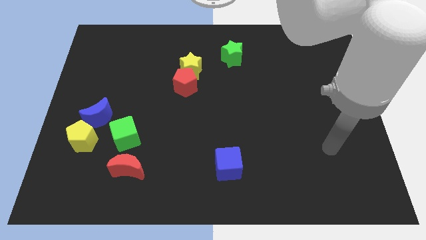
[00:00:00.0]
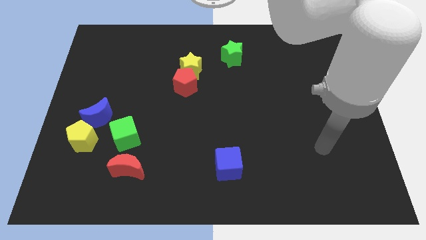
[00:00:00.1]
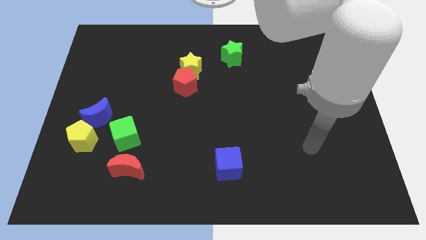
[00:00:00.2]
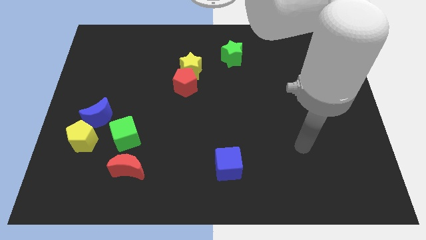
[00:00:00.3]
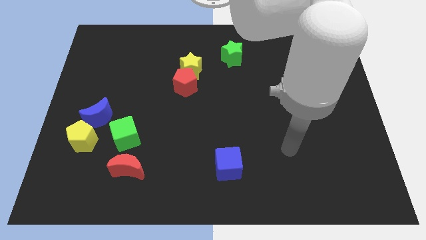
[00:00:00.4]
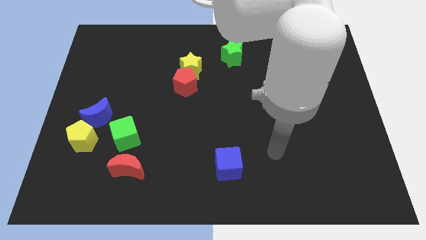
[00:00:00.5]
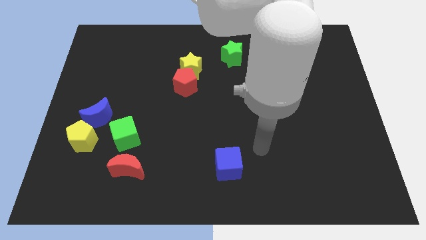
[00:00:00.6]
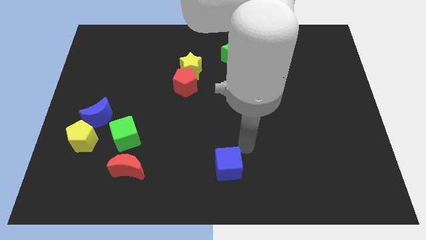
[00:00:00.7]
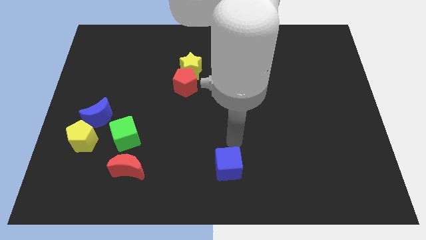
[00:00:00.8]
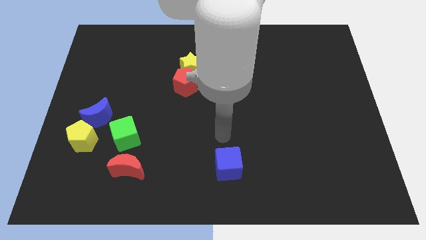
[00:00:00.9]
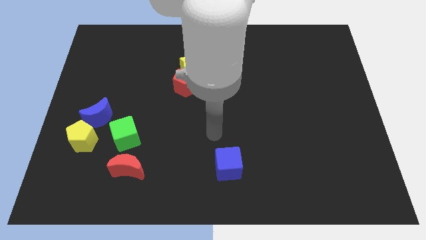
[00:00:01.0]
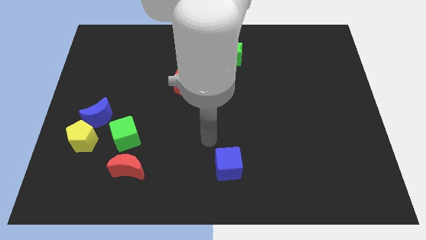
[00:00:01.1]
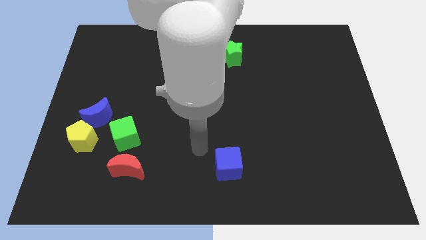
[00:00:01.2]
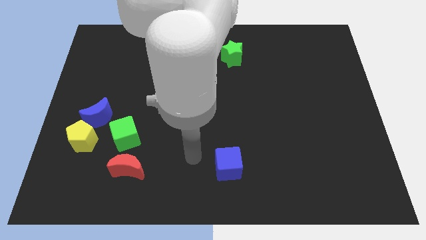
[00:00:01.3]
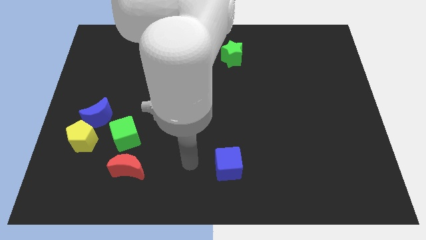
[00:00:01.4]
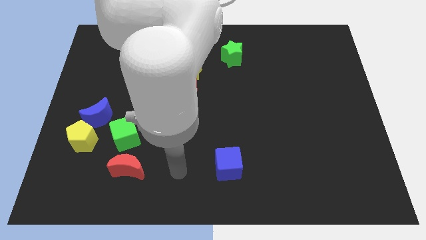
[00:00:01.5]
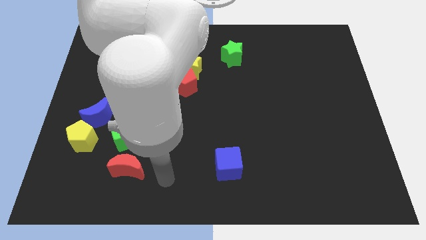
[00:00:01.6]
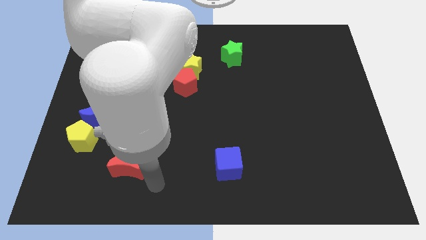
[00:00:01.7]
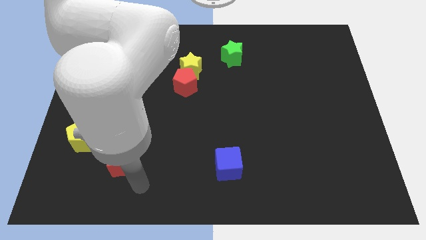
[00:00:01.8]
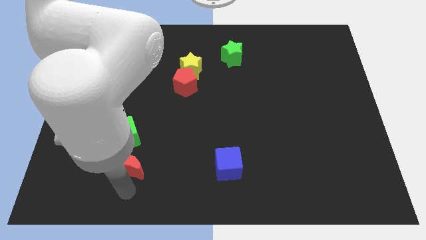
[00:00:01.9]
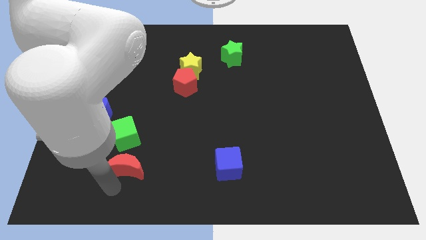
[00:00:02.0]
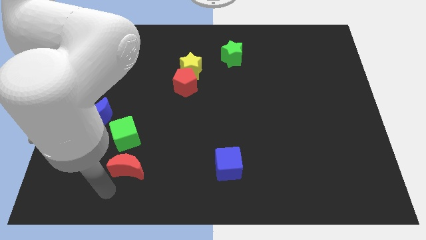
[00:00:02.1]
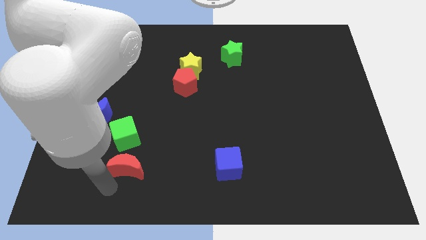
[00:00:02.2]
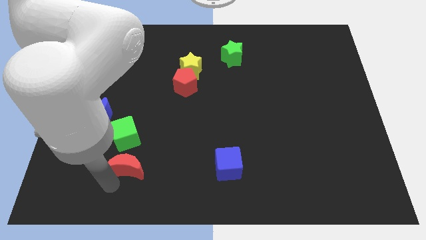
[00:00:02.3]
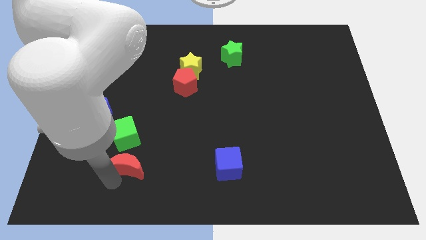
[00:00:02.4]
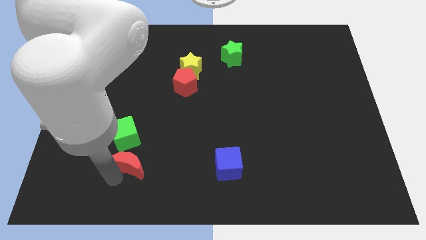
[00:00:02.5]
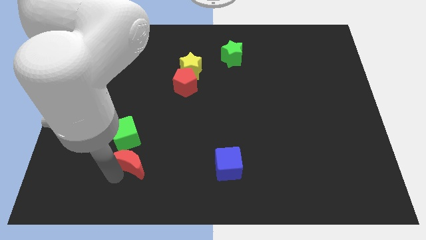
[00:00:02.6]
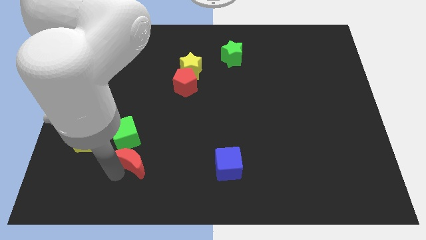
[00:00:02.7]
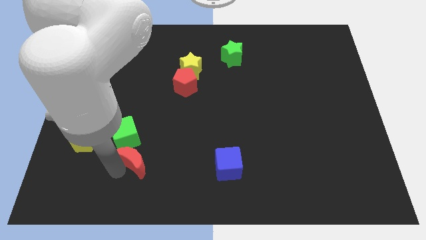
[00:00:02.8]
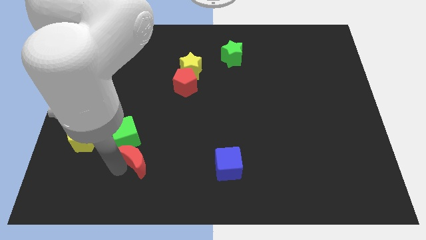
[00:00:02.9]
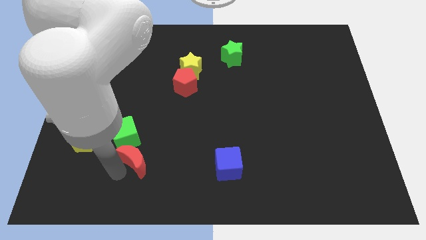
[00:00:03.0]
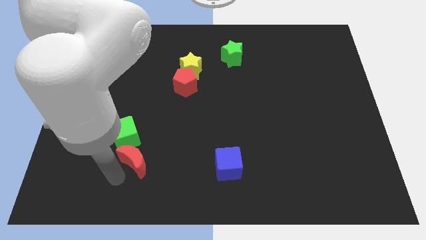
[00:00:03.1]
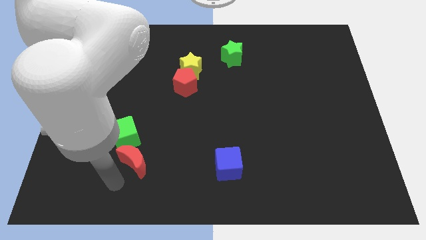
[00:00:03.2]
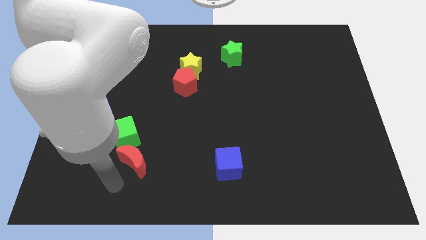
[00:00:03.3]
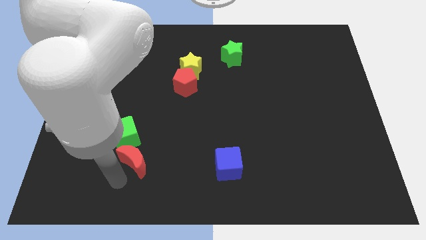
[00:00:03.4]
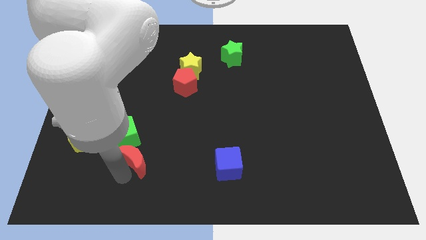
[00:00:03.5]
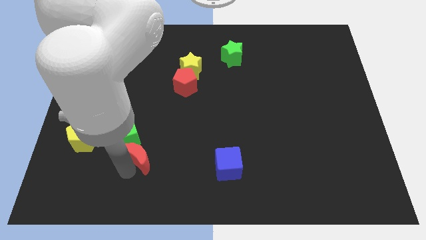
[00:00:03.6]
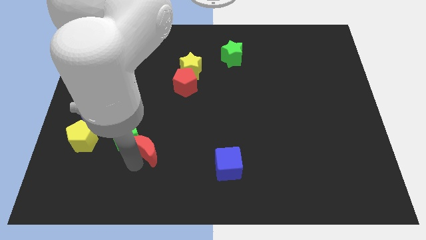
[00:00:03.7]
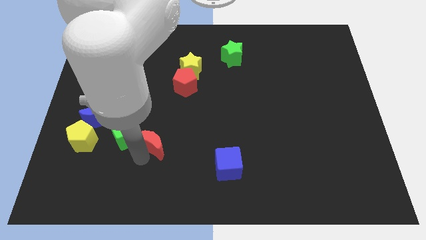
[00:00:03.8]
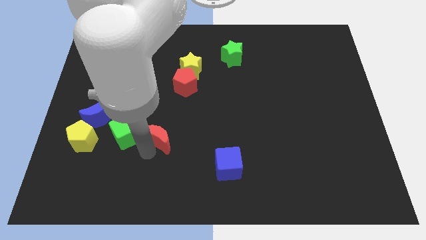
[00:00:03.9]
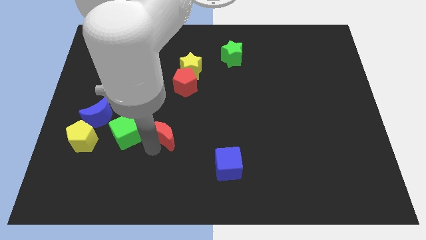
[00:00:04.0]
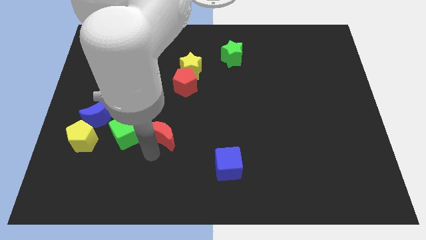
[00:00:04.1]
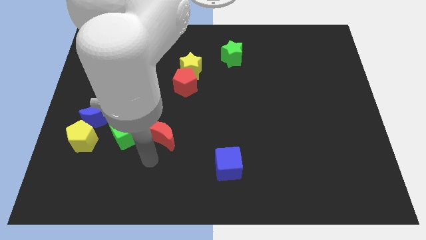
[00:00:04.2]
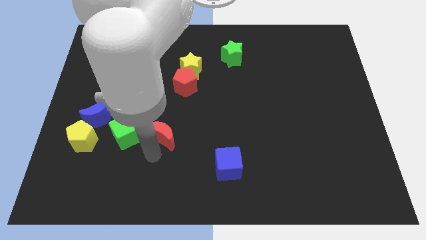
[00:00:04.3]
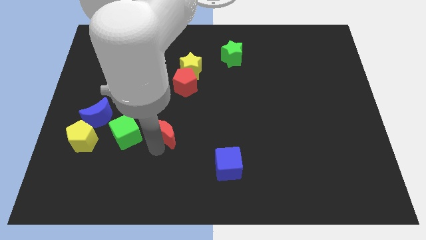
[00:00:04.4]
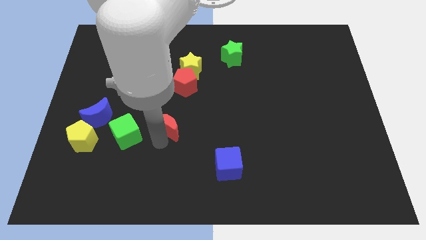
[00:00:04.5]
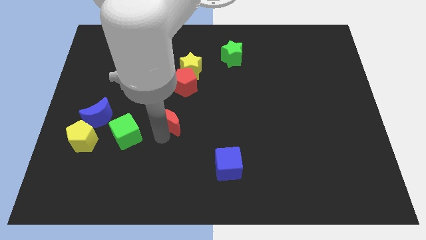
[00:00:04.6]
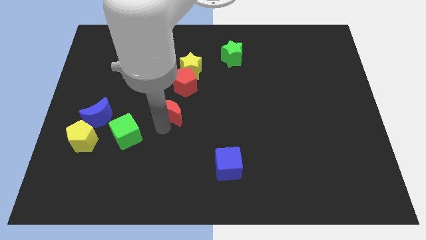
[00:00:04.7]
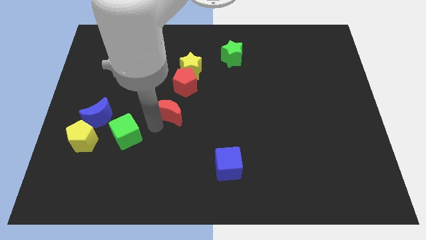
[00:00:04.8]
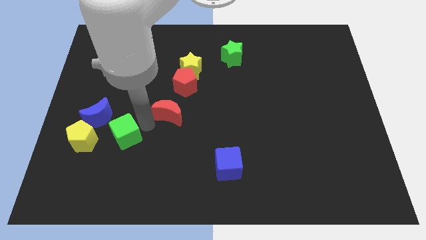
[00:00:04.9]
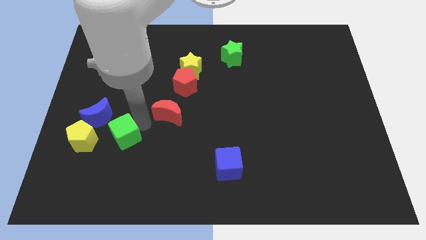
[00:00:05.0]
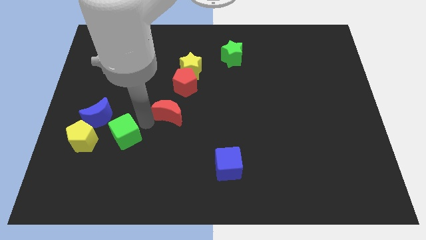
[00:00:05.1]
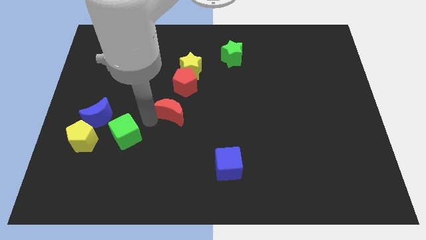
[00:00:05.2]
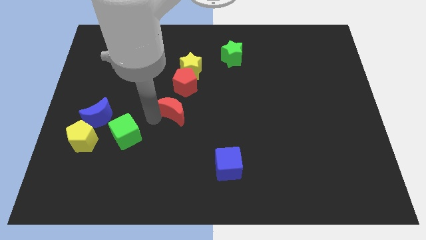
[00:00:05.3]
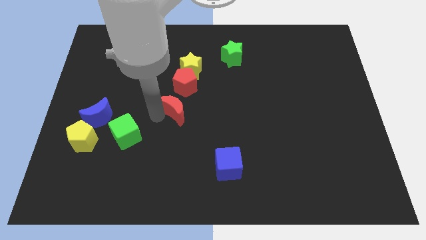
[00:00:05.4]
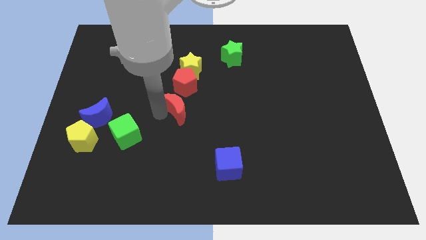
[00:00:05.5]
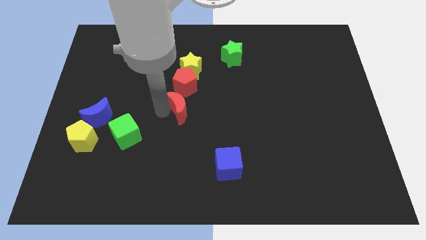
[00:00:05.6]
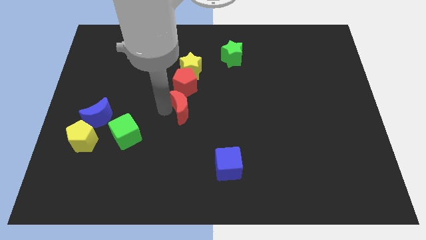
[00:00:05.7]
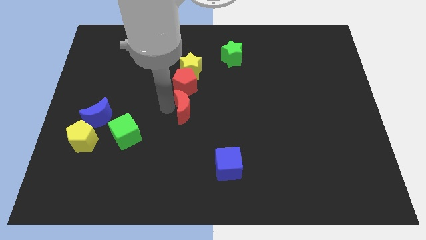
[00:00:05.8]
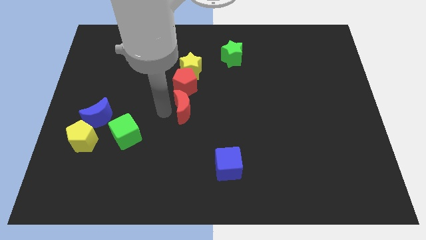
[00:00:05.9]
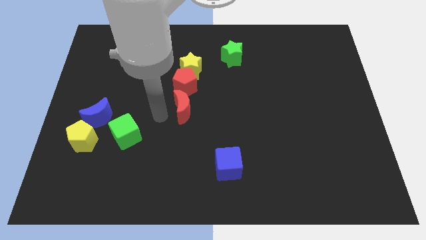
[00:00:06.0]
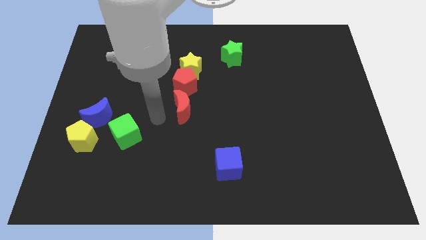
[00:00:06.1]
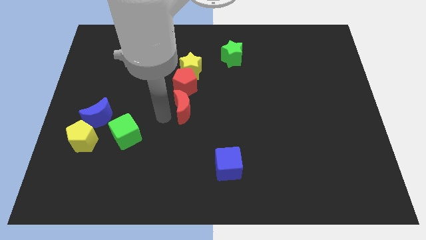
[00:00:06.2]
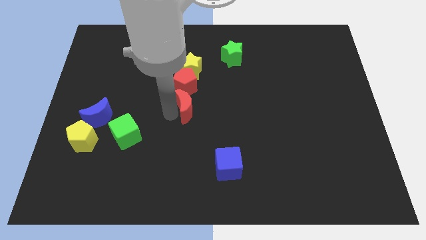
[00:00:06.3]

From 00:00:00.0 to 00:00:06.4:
move the red moon to the bottom right side of the red pentagon

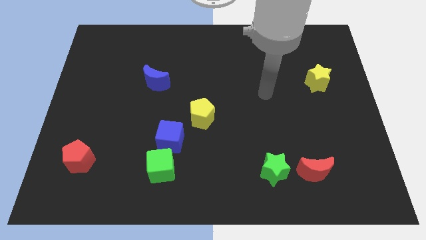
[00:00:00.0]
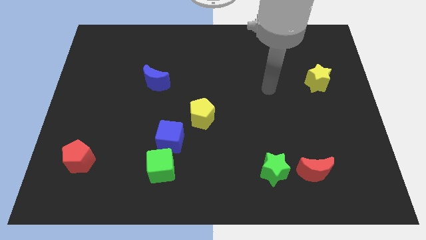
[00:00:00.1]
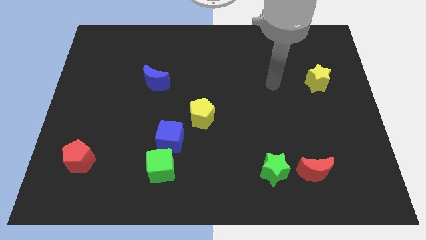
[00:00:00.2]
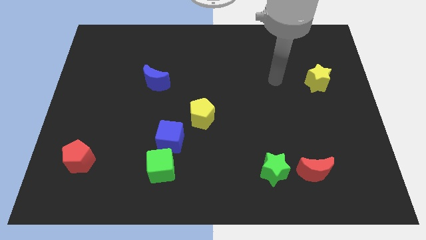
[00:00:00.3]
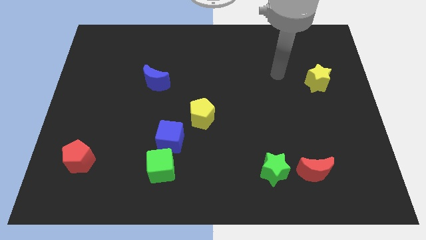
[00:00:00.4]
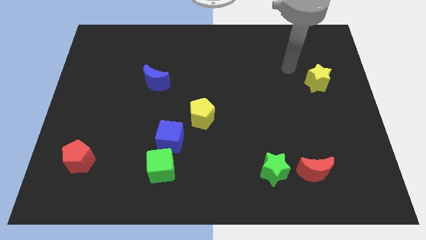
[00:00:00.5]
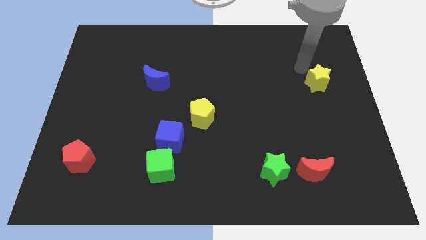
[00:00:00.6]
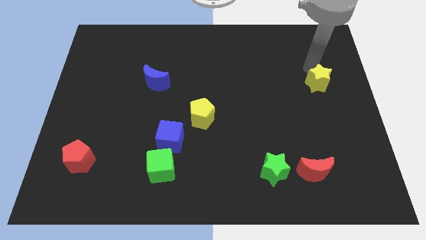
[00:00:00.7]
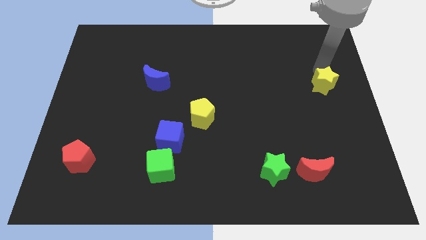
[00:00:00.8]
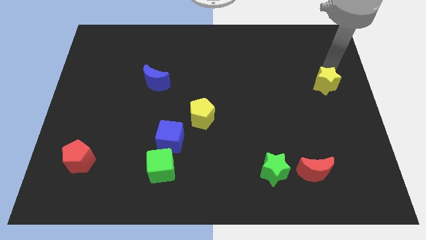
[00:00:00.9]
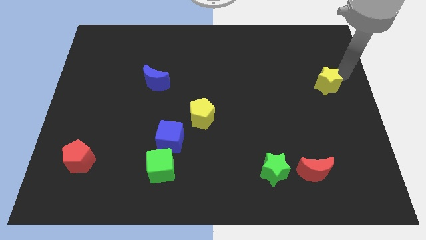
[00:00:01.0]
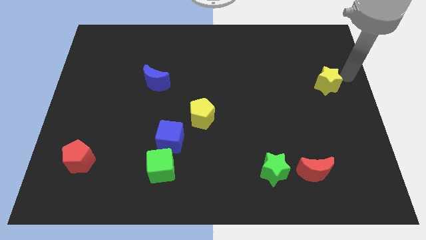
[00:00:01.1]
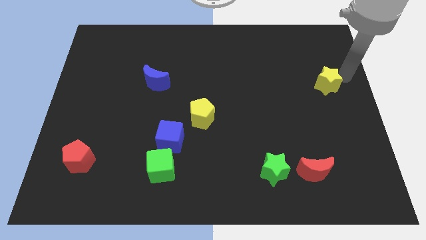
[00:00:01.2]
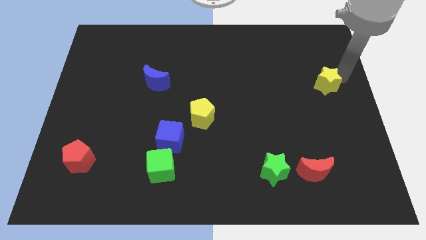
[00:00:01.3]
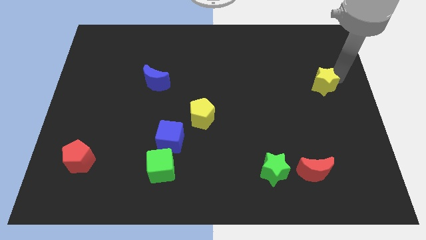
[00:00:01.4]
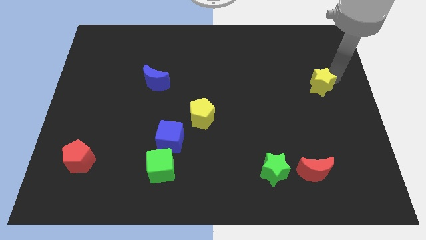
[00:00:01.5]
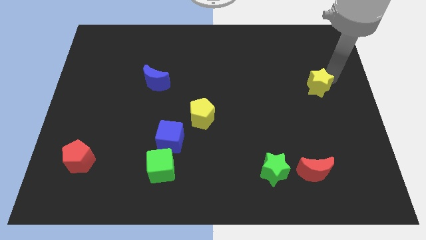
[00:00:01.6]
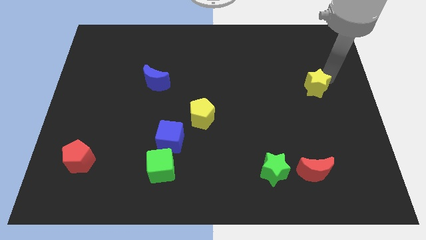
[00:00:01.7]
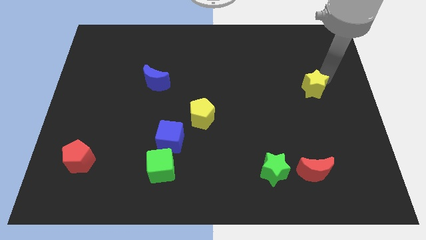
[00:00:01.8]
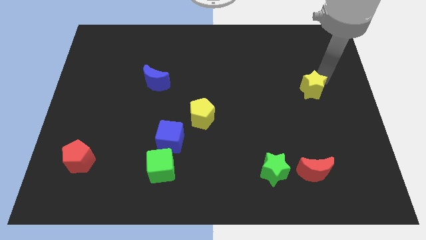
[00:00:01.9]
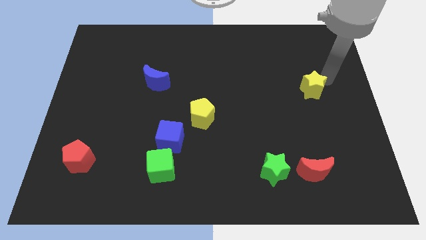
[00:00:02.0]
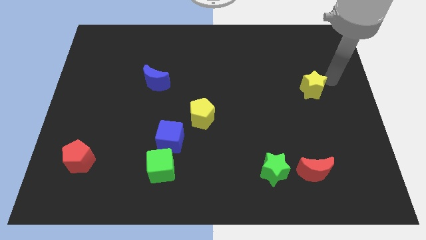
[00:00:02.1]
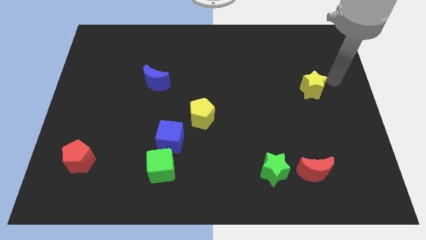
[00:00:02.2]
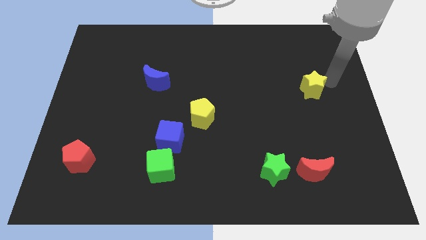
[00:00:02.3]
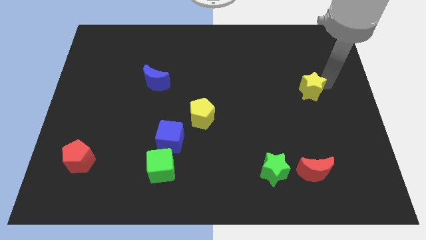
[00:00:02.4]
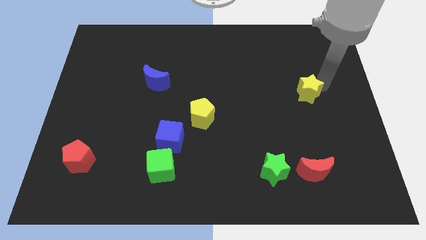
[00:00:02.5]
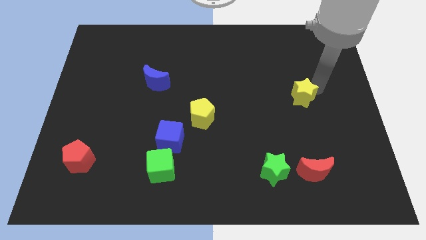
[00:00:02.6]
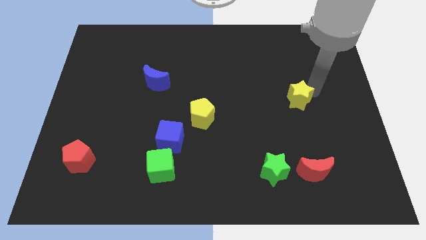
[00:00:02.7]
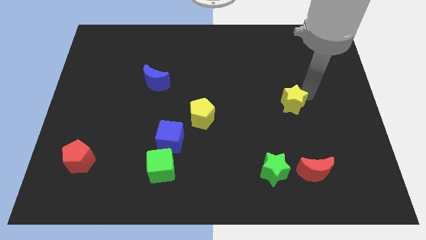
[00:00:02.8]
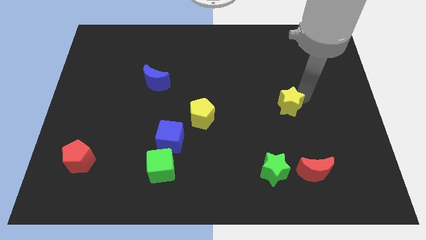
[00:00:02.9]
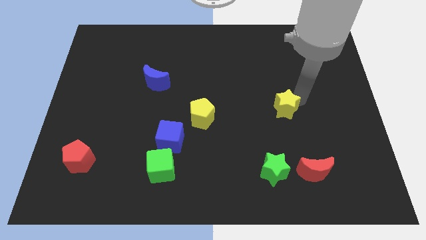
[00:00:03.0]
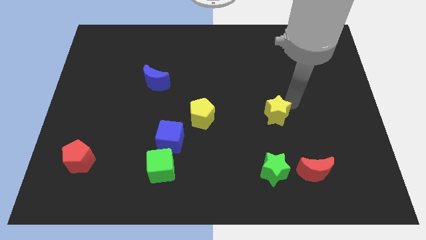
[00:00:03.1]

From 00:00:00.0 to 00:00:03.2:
put the yellow star to the top of the green star
